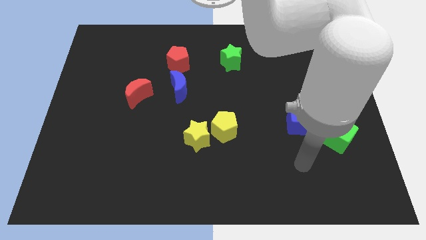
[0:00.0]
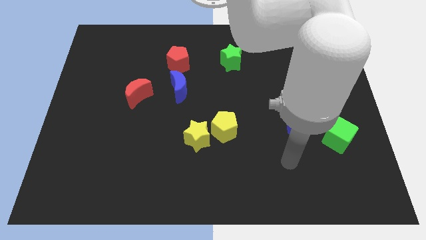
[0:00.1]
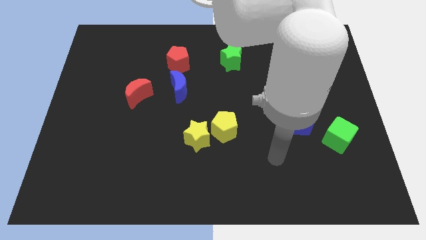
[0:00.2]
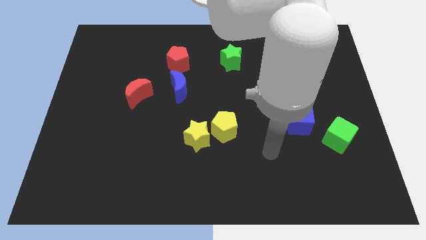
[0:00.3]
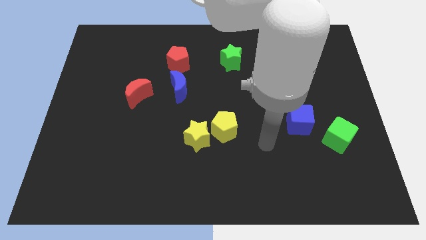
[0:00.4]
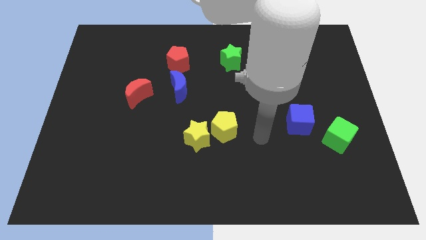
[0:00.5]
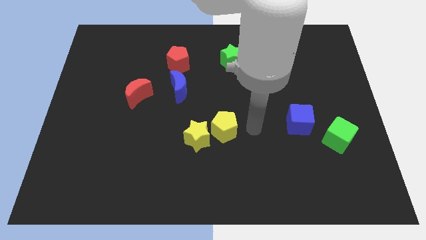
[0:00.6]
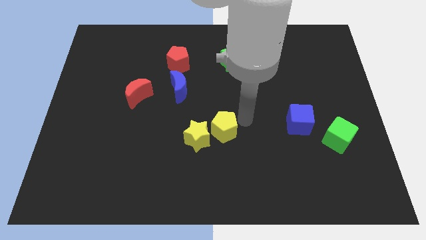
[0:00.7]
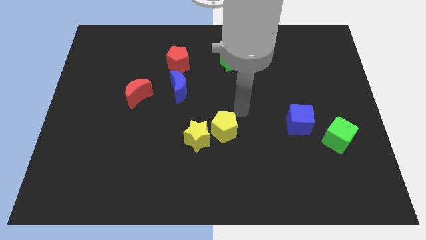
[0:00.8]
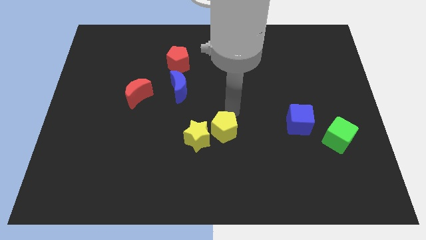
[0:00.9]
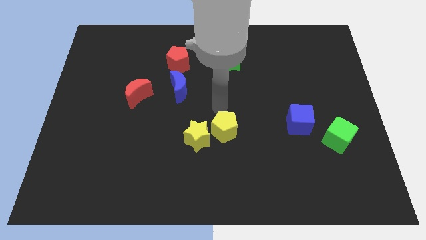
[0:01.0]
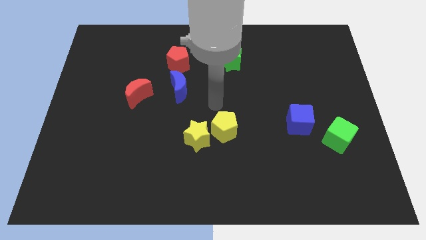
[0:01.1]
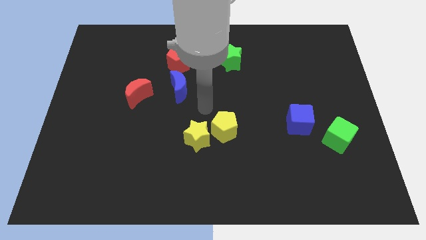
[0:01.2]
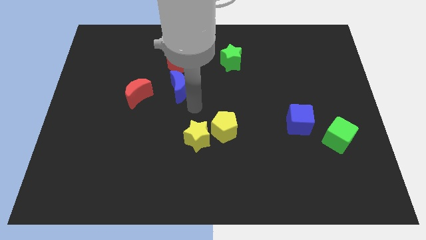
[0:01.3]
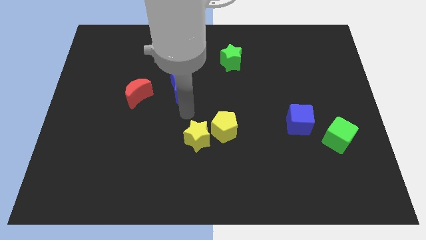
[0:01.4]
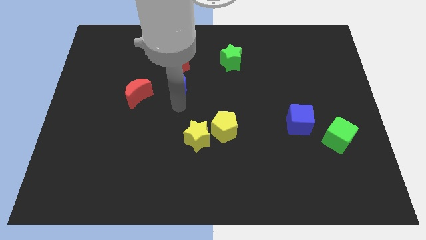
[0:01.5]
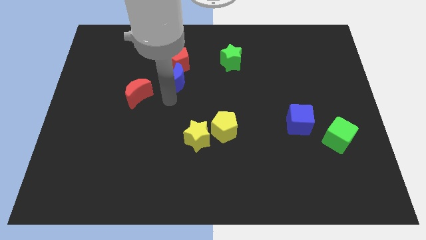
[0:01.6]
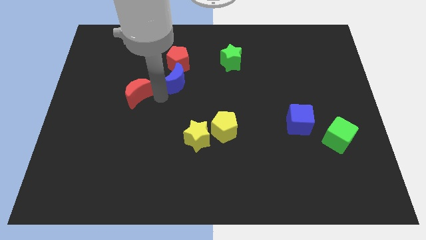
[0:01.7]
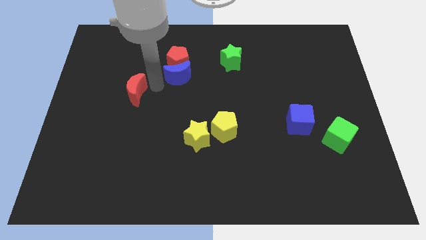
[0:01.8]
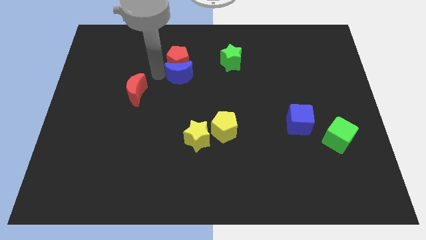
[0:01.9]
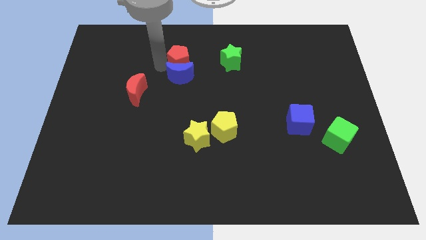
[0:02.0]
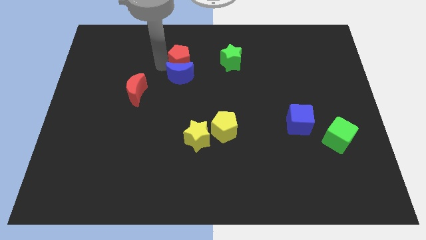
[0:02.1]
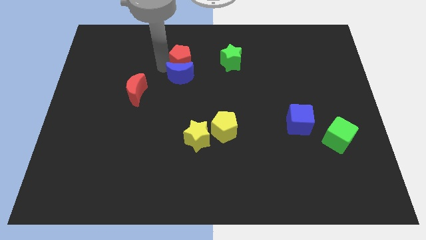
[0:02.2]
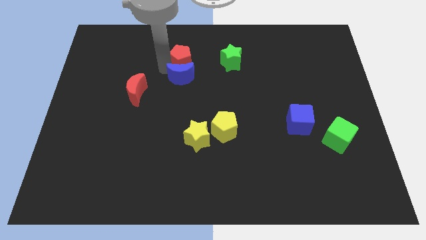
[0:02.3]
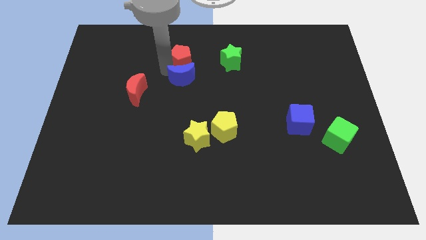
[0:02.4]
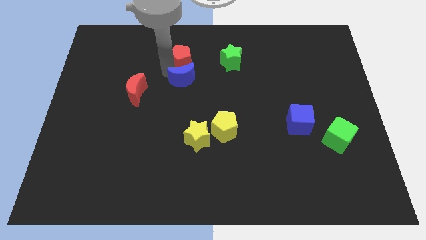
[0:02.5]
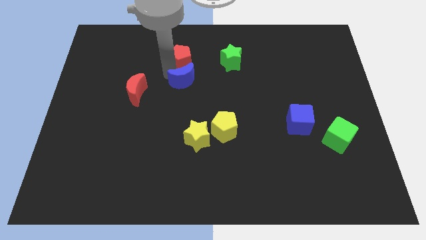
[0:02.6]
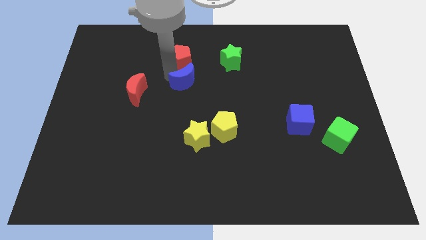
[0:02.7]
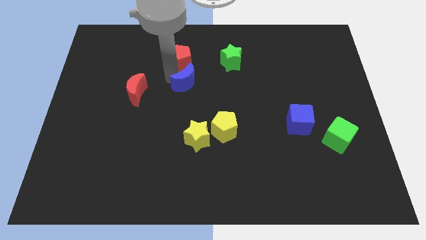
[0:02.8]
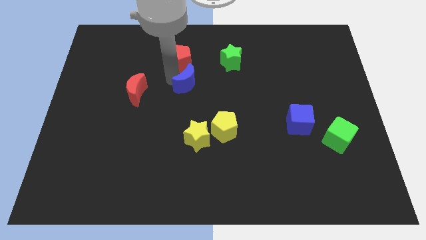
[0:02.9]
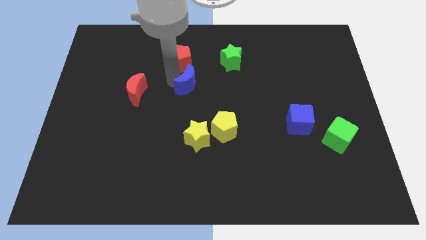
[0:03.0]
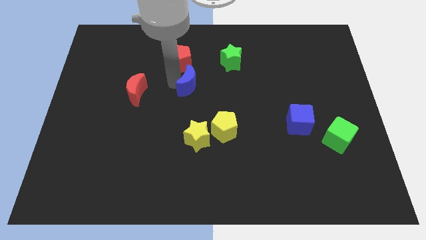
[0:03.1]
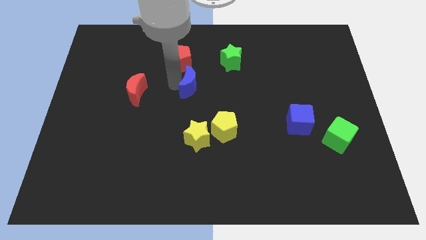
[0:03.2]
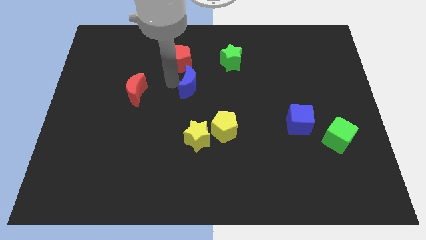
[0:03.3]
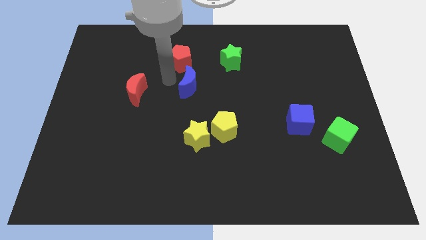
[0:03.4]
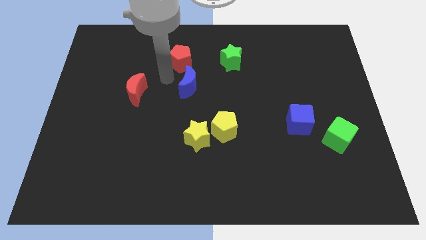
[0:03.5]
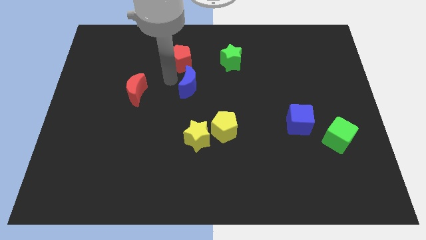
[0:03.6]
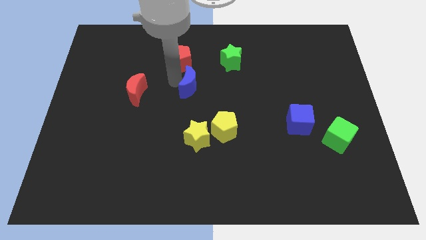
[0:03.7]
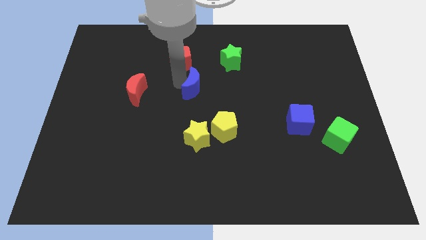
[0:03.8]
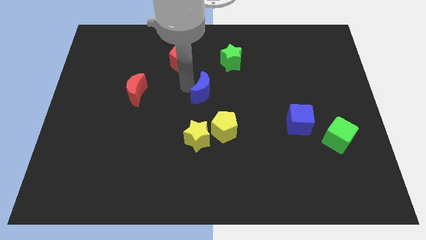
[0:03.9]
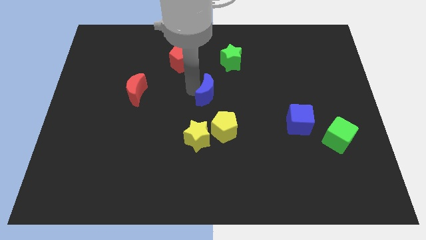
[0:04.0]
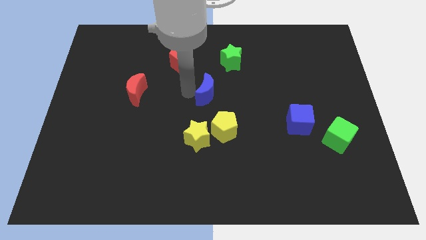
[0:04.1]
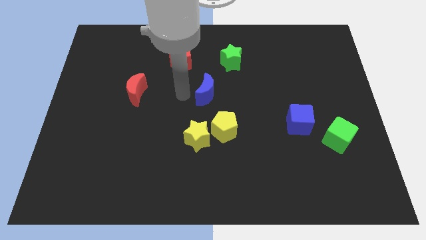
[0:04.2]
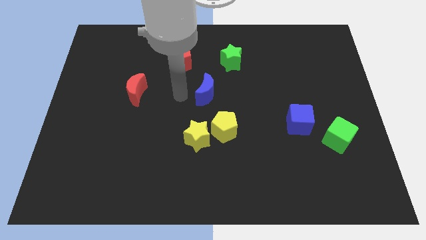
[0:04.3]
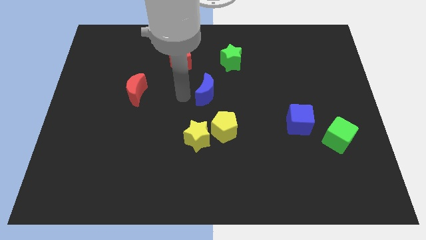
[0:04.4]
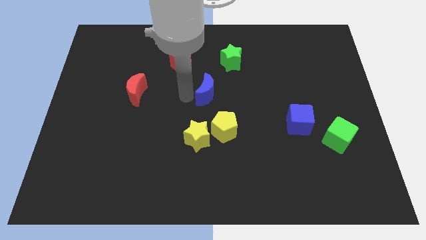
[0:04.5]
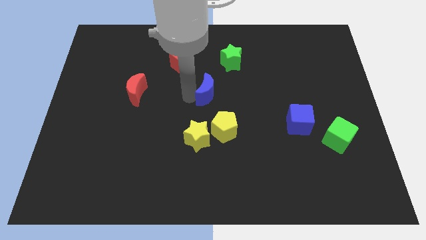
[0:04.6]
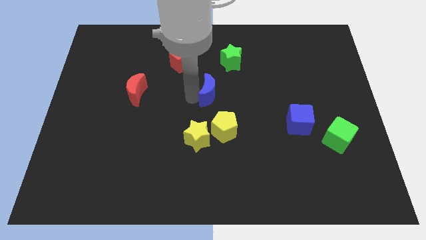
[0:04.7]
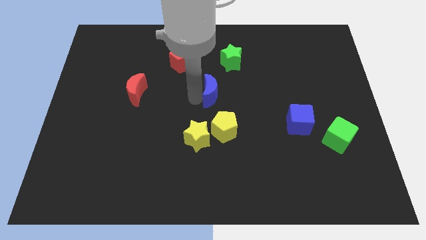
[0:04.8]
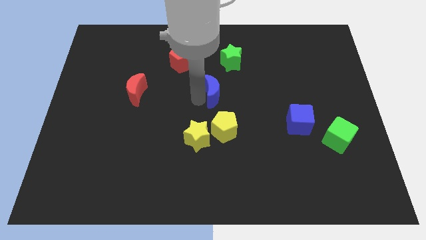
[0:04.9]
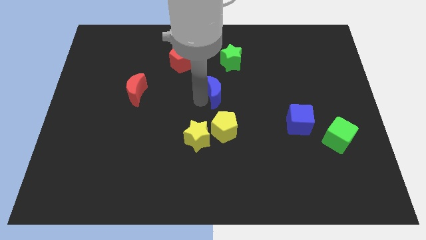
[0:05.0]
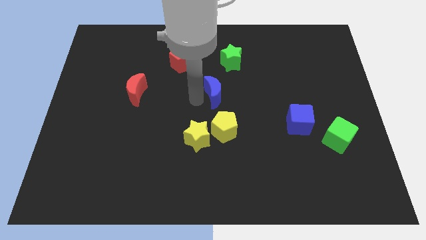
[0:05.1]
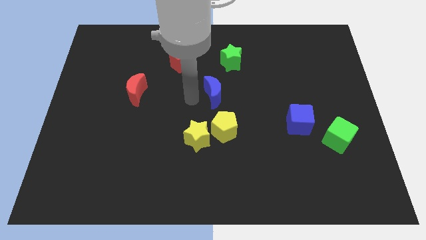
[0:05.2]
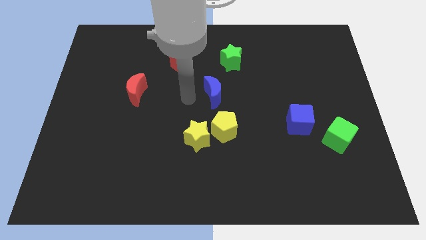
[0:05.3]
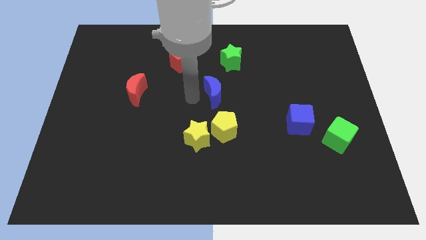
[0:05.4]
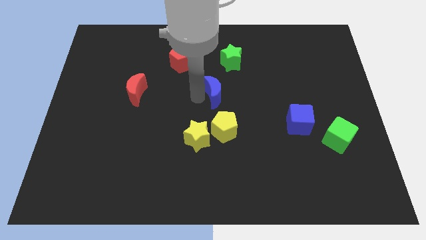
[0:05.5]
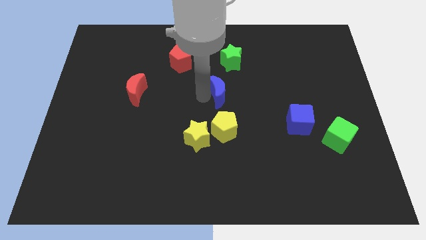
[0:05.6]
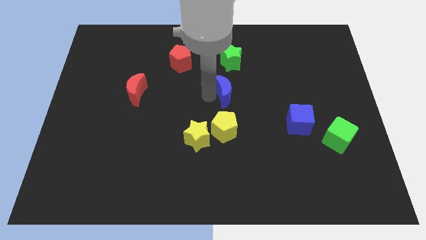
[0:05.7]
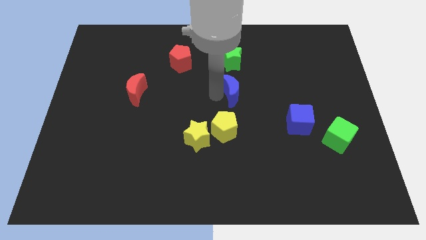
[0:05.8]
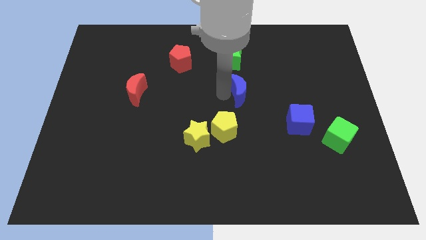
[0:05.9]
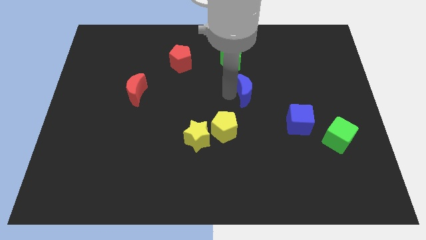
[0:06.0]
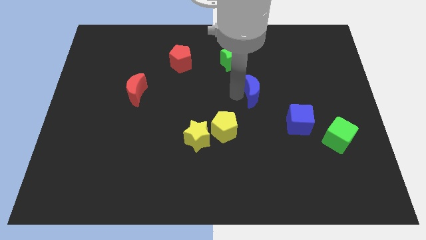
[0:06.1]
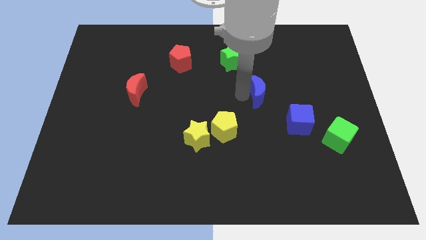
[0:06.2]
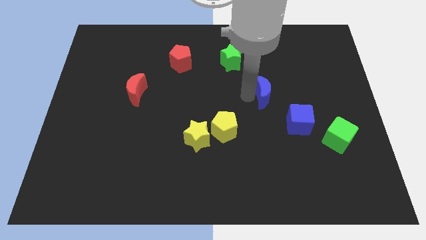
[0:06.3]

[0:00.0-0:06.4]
move the blue moon to the right

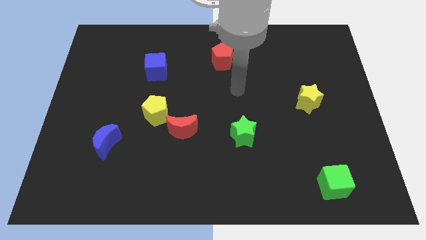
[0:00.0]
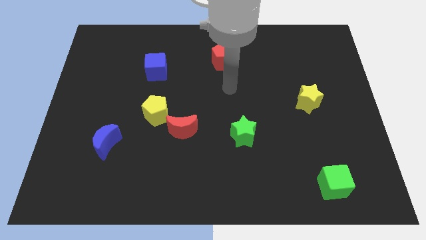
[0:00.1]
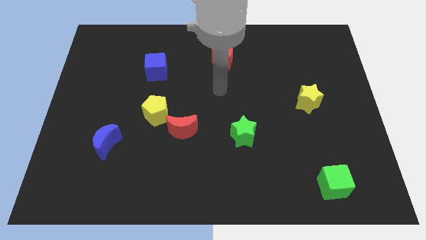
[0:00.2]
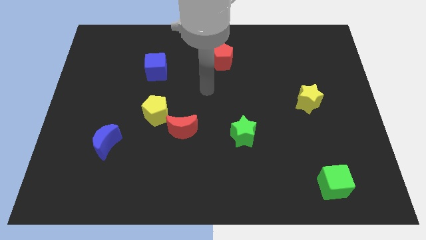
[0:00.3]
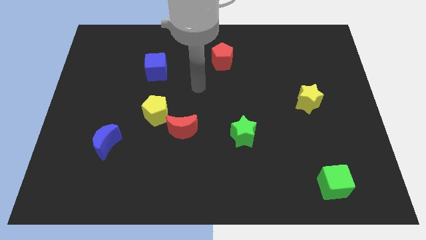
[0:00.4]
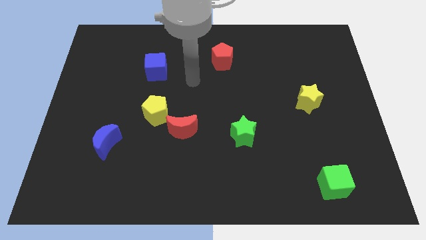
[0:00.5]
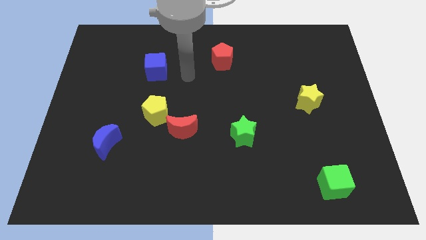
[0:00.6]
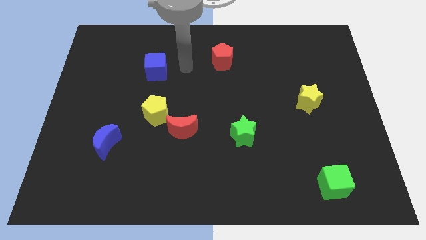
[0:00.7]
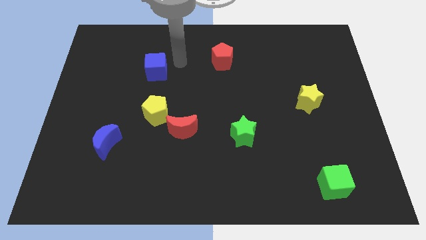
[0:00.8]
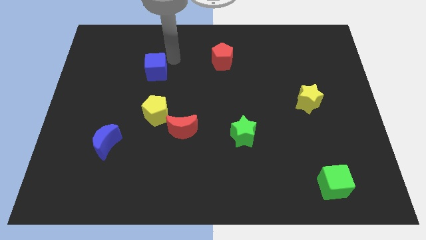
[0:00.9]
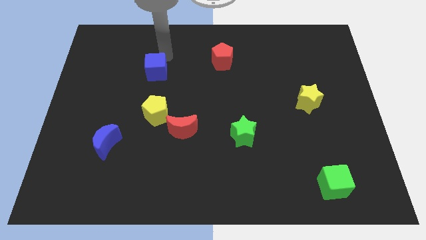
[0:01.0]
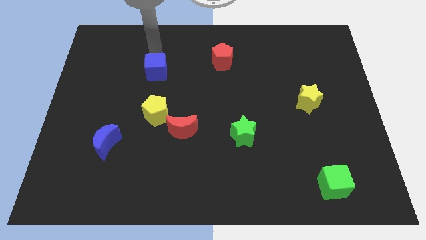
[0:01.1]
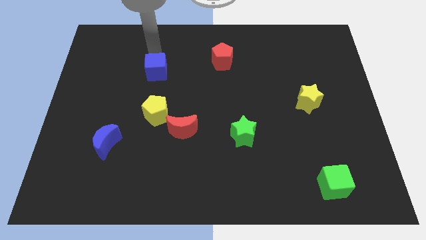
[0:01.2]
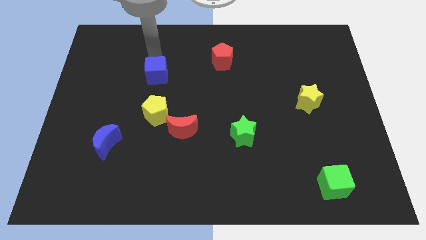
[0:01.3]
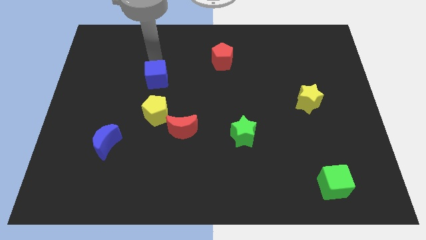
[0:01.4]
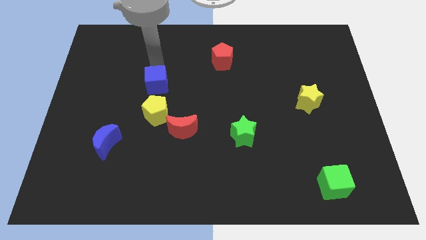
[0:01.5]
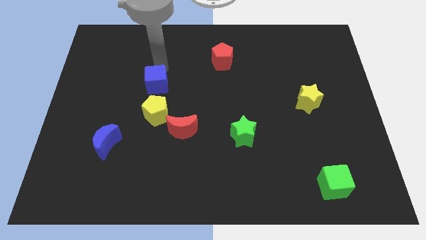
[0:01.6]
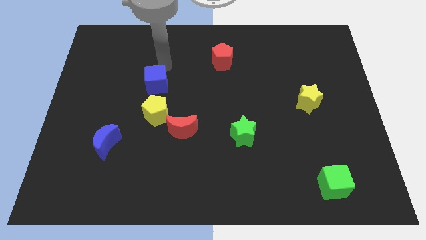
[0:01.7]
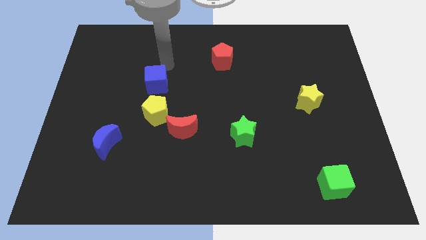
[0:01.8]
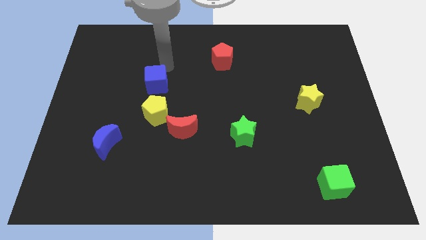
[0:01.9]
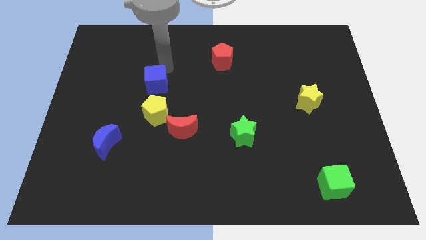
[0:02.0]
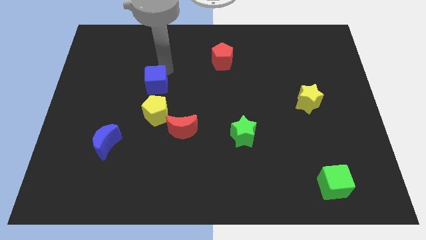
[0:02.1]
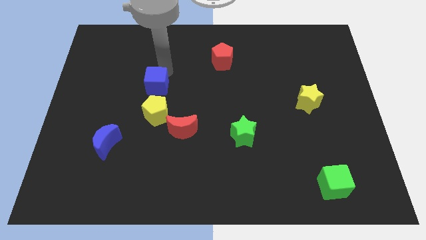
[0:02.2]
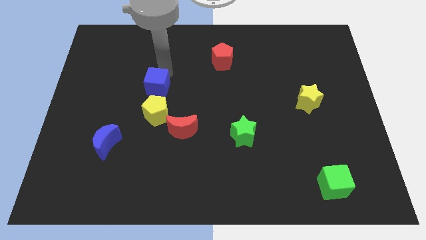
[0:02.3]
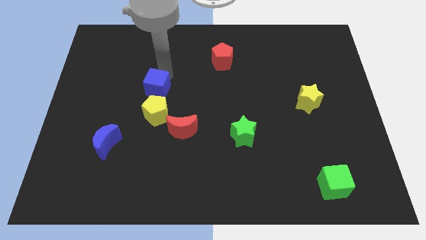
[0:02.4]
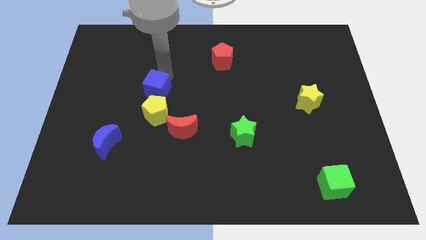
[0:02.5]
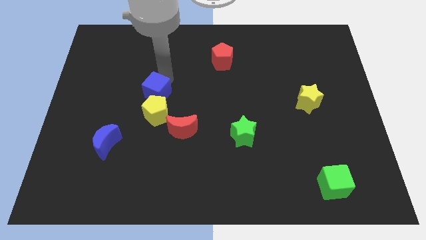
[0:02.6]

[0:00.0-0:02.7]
move the blue cube slightly downwards
